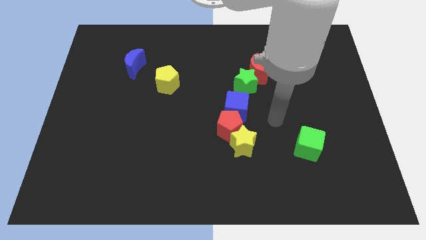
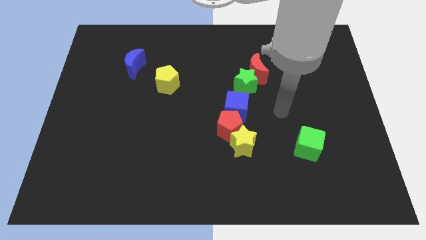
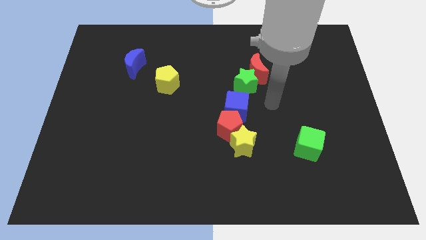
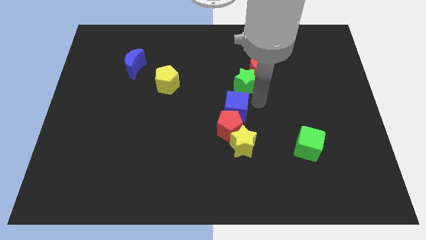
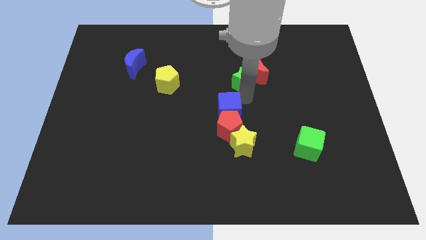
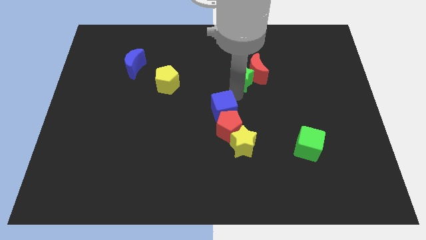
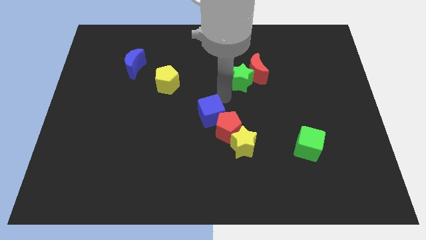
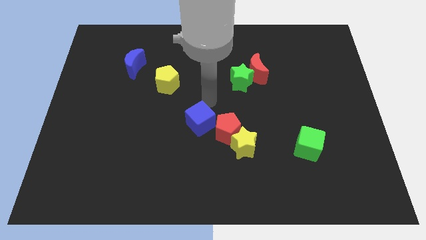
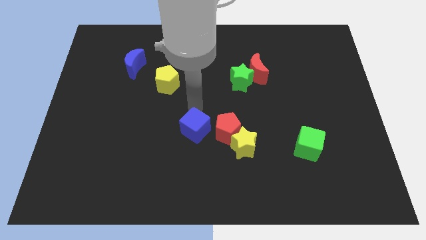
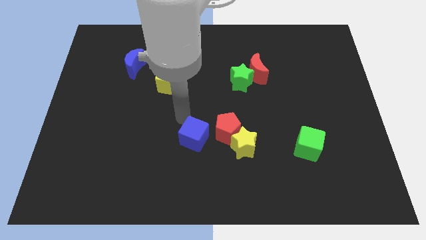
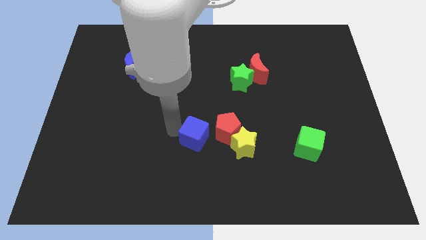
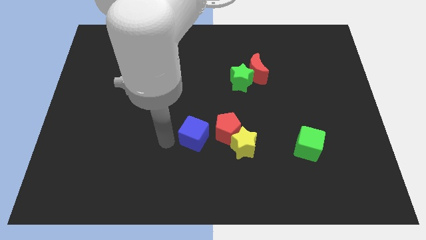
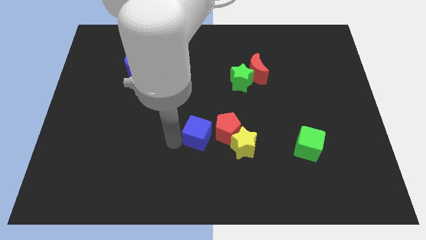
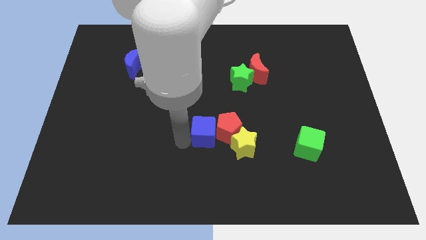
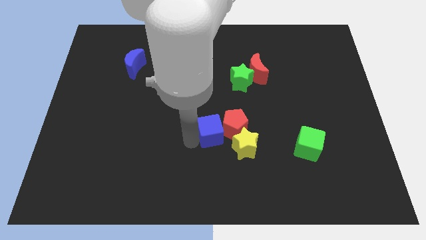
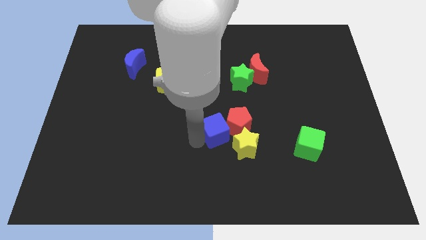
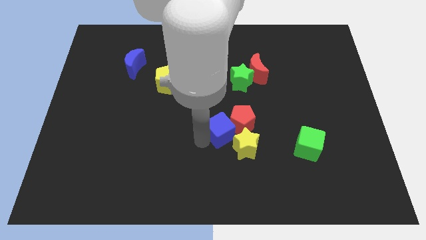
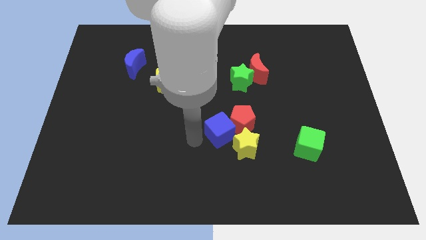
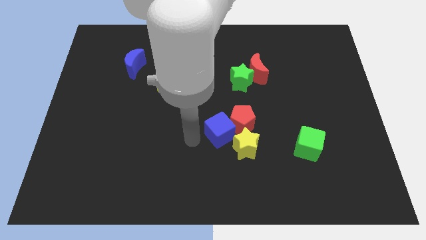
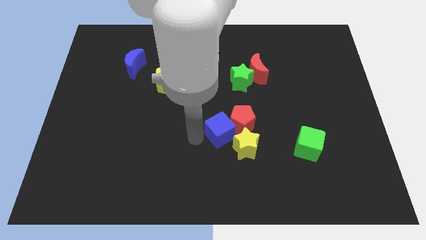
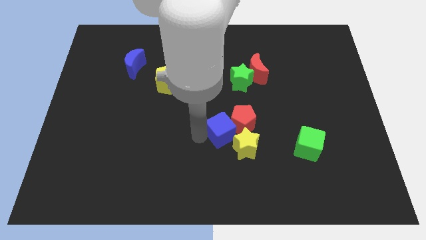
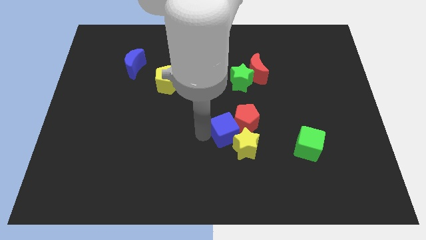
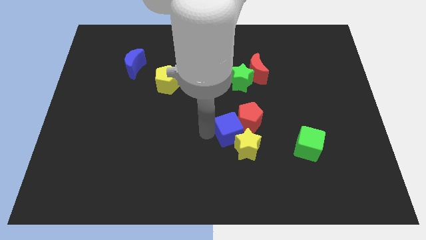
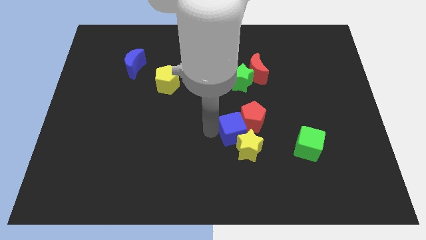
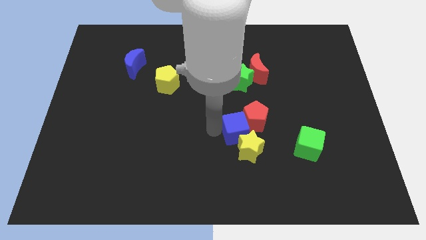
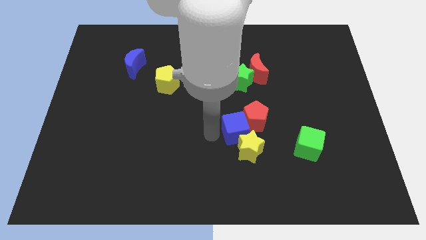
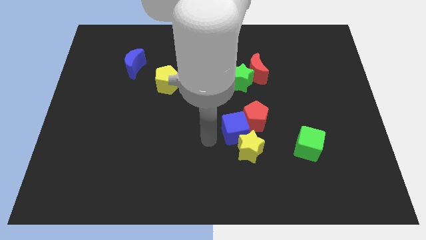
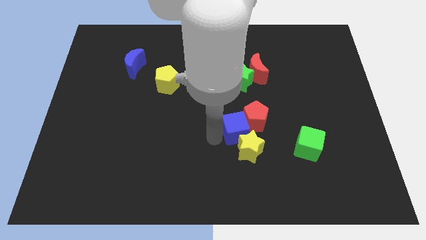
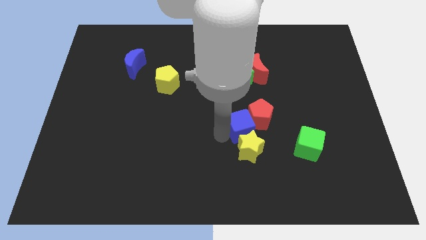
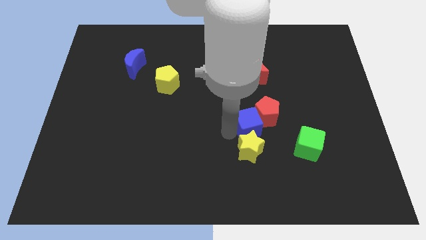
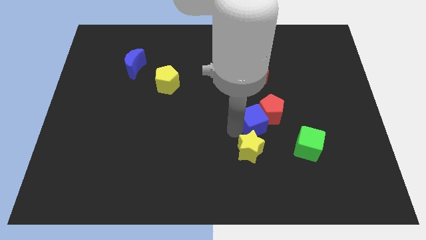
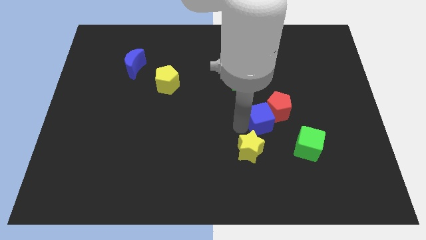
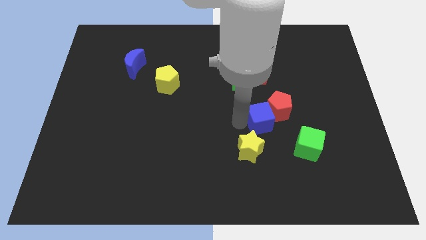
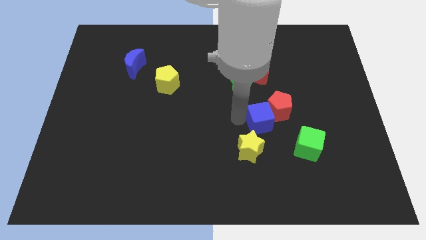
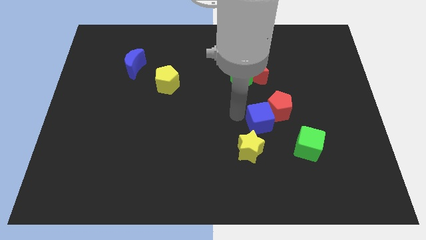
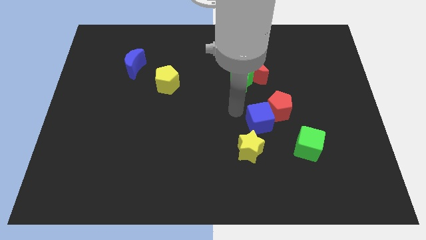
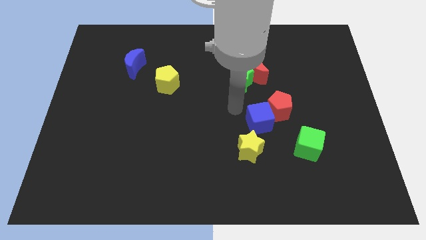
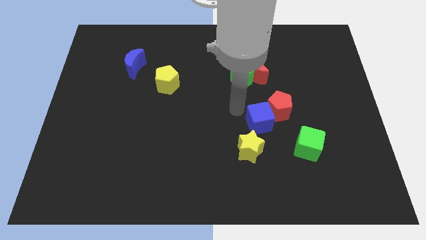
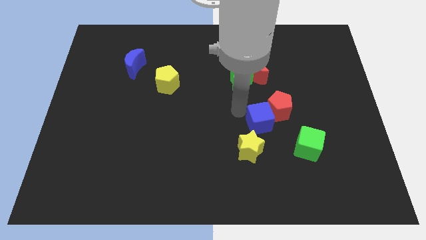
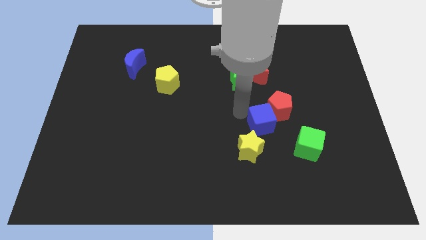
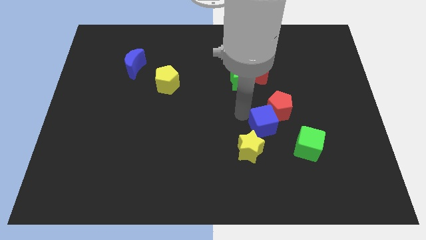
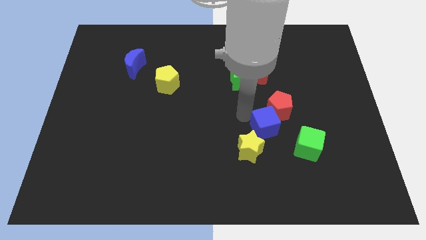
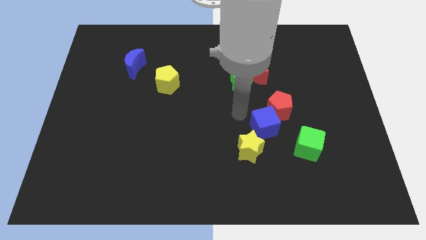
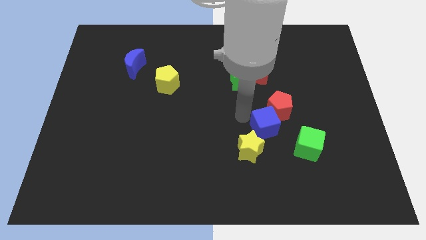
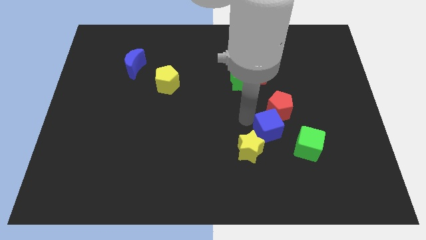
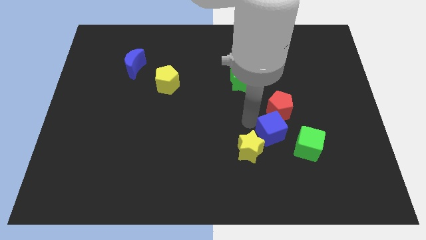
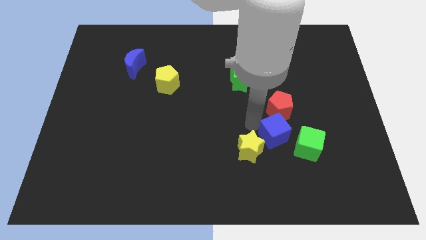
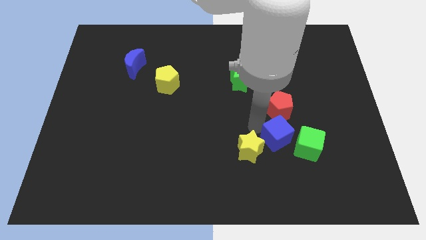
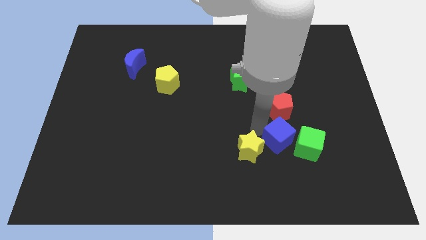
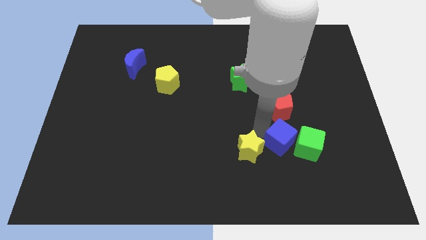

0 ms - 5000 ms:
put the blue cube close to the green cube

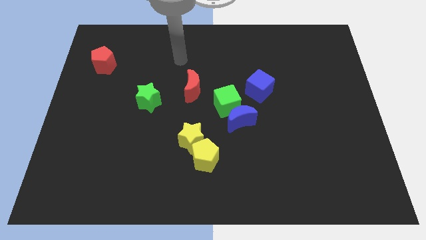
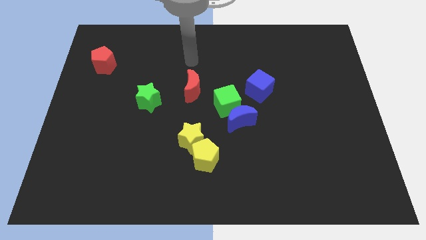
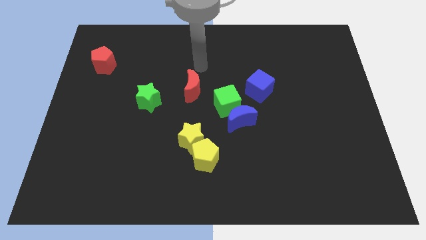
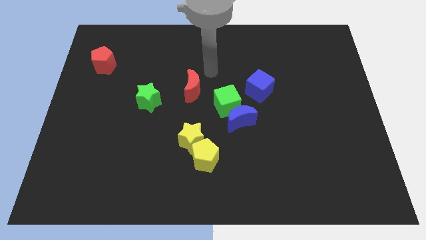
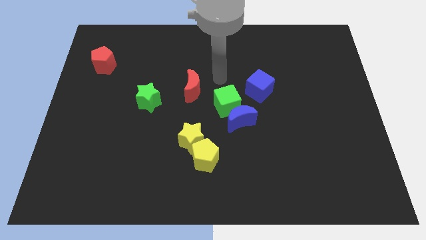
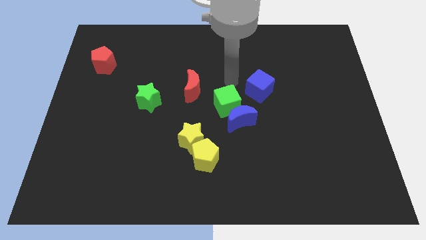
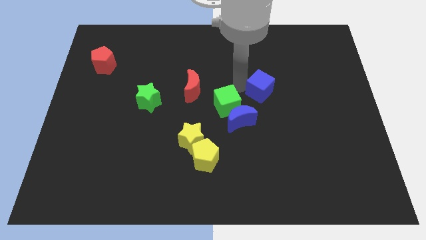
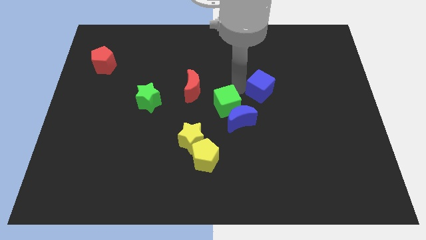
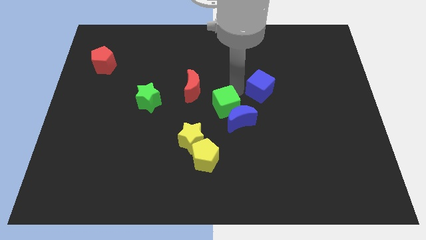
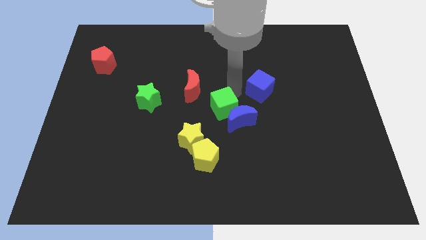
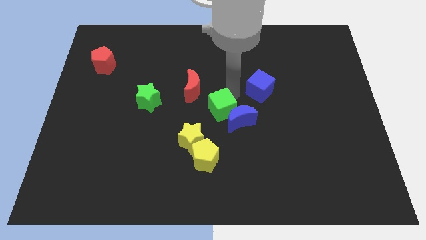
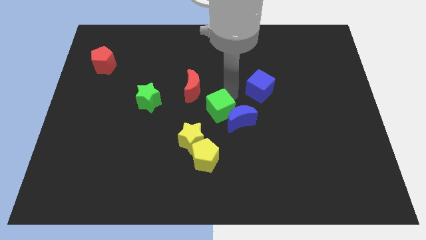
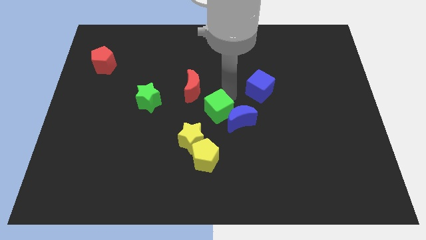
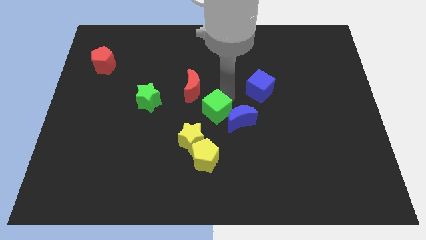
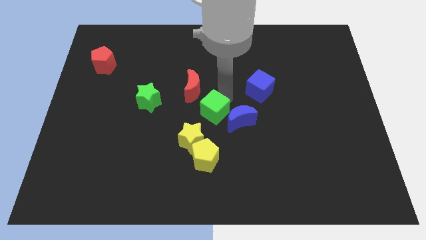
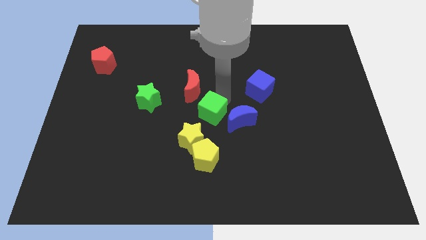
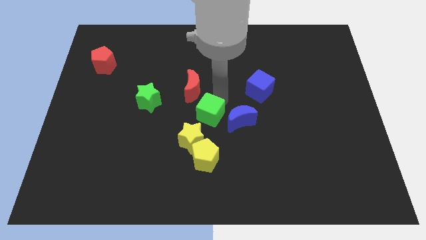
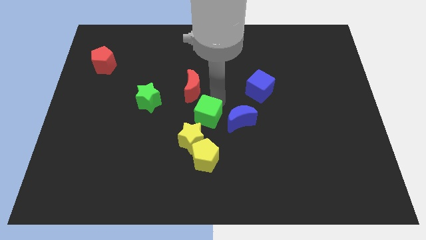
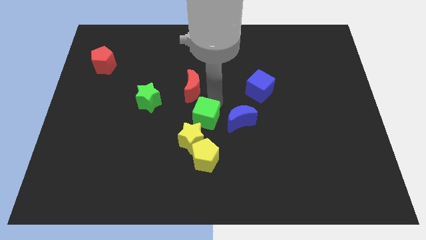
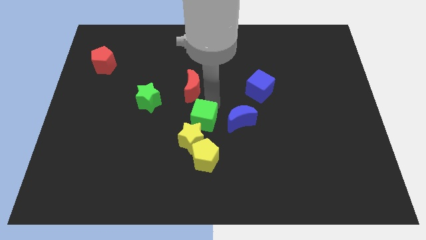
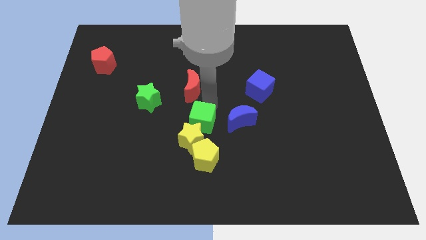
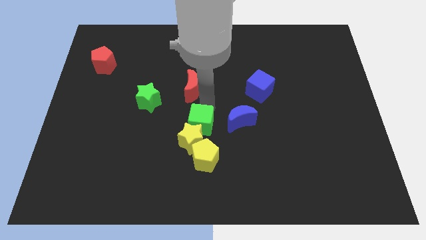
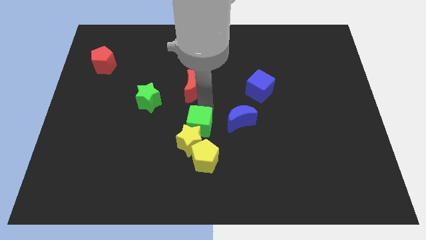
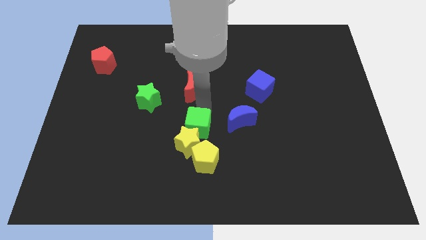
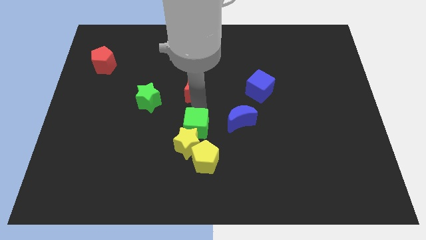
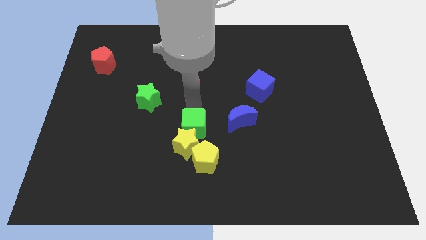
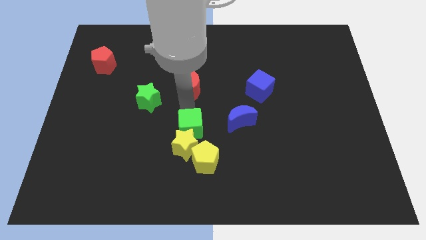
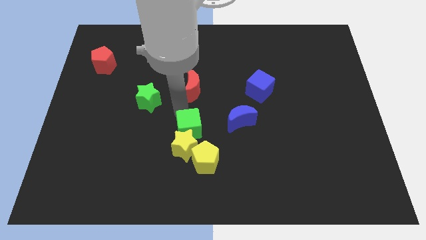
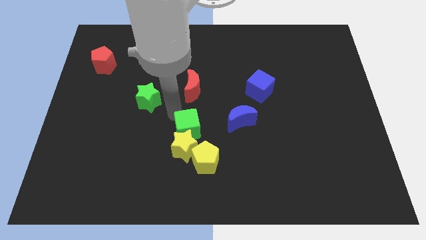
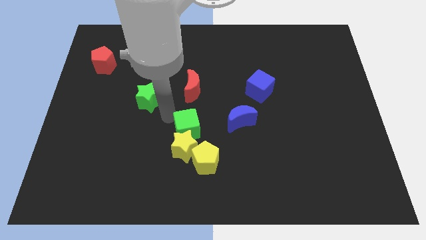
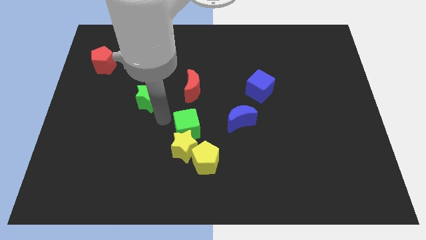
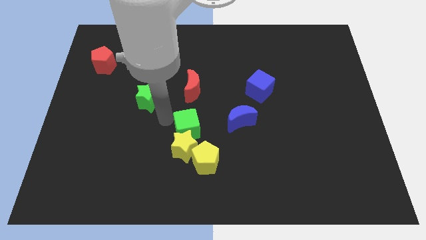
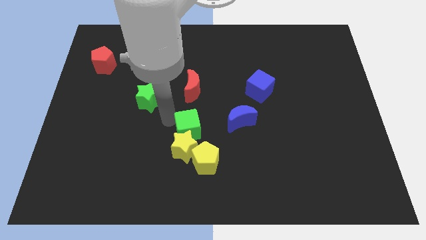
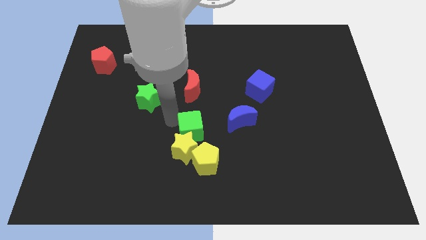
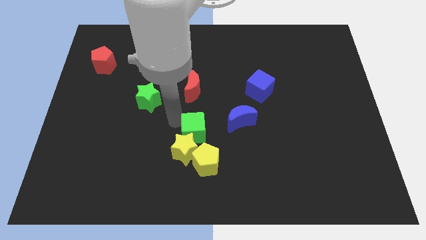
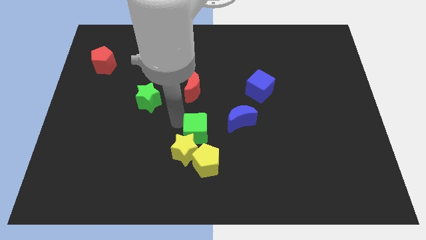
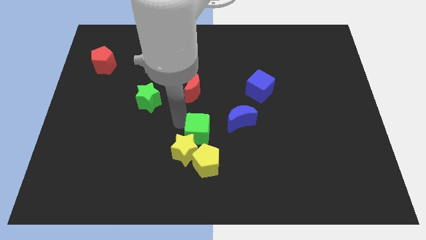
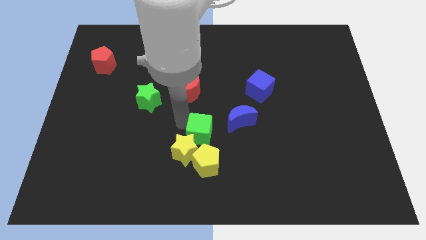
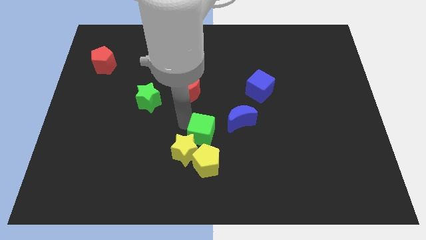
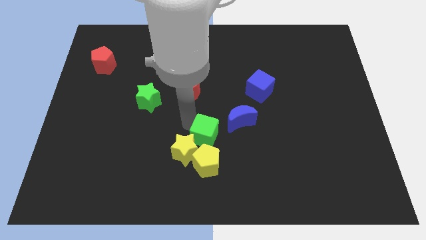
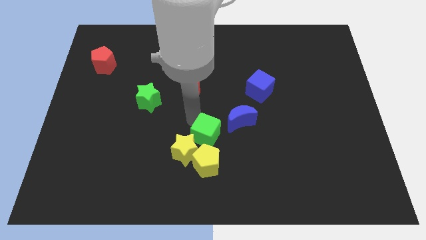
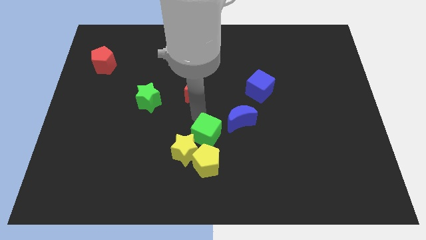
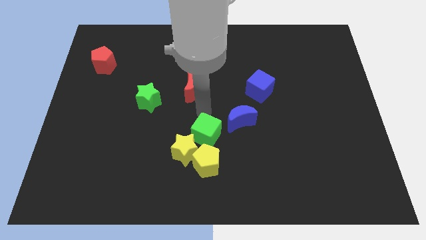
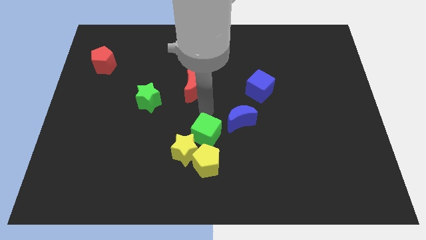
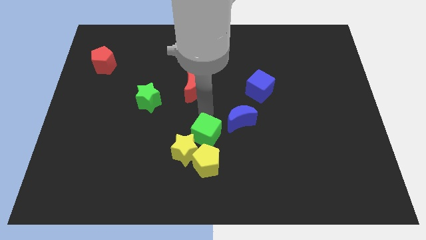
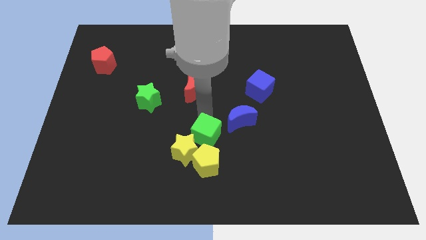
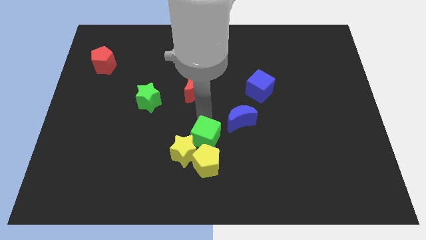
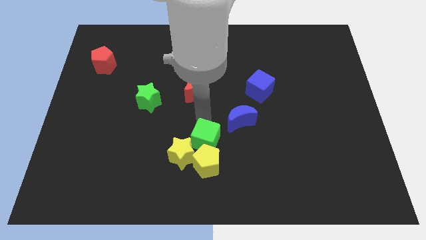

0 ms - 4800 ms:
move the green cube next to the yellow pentagon
